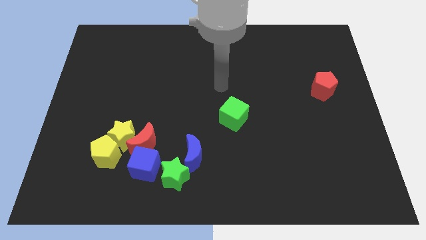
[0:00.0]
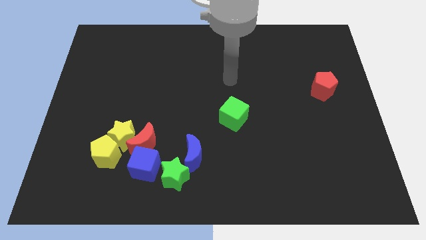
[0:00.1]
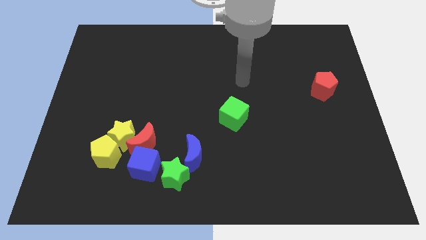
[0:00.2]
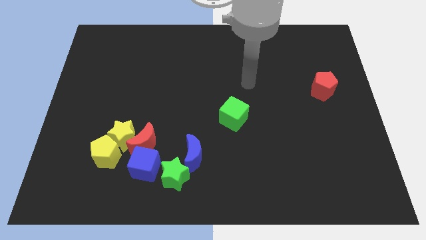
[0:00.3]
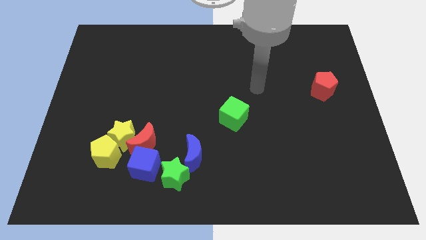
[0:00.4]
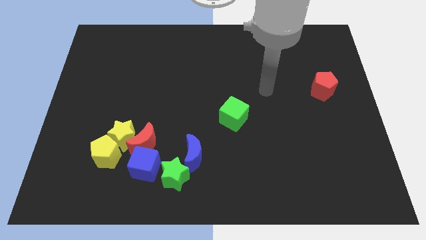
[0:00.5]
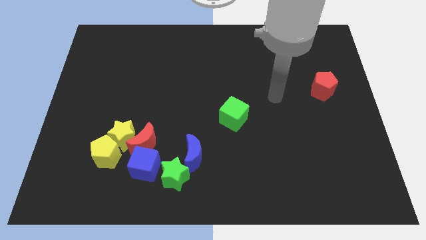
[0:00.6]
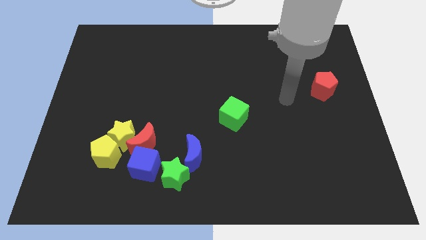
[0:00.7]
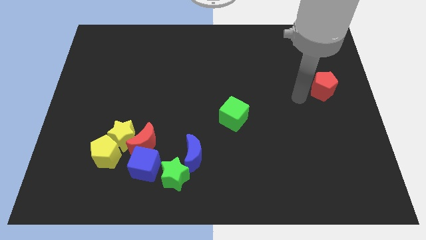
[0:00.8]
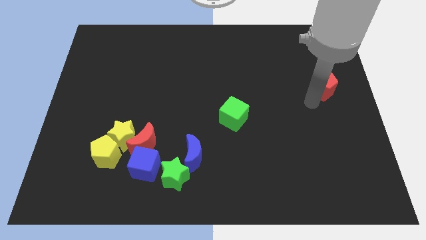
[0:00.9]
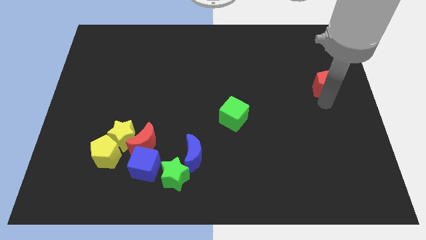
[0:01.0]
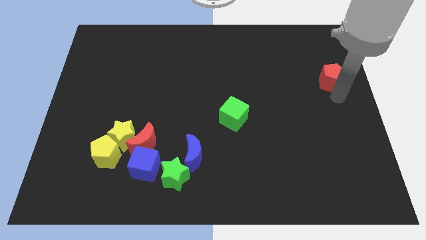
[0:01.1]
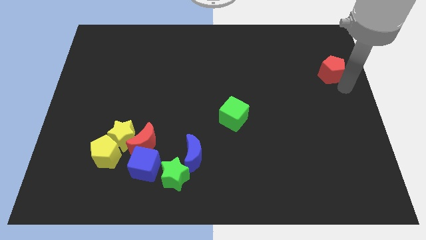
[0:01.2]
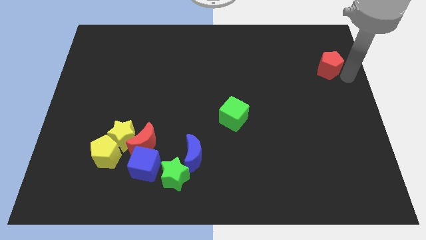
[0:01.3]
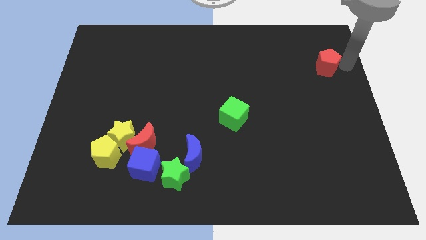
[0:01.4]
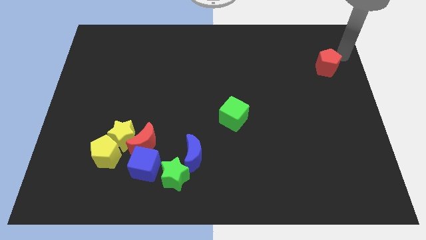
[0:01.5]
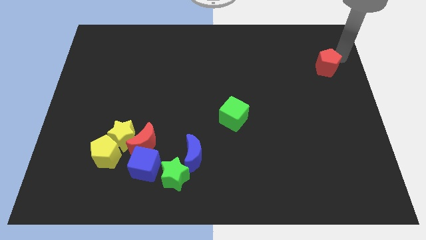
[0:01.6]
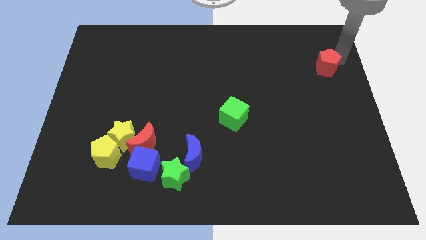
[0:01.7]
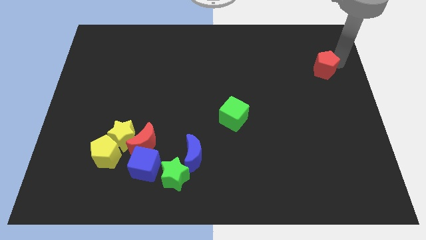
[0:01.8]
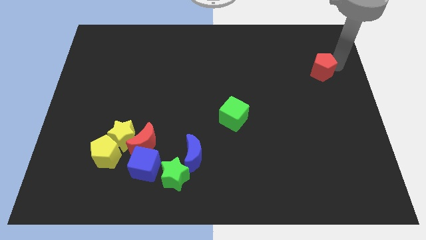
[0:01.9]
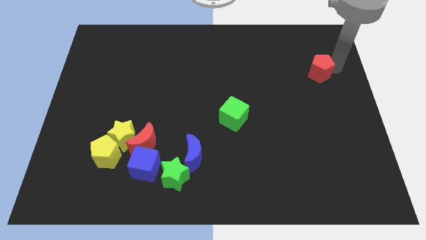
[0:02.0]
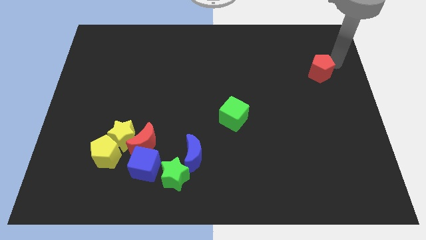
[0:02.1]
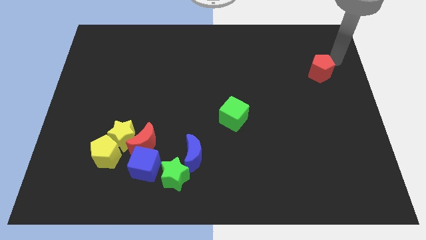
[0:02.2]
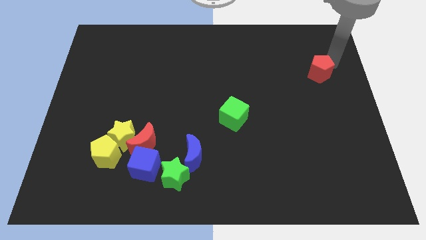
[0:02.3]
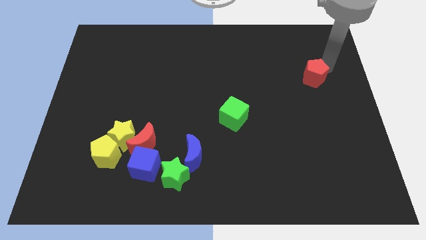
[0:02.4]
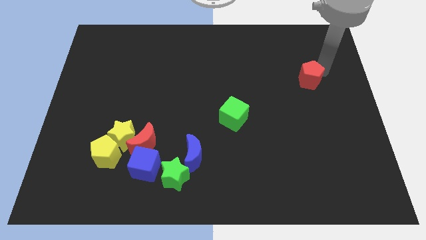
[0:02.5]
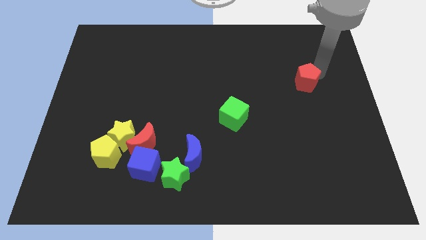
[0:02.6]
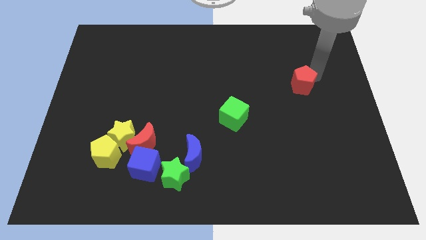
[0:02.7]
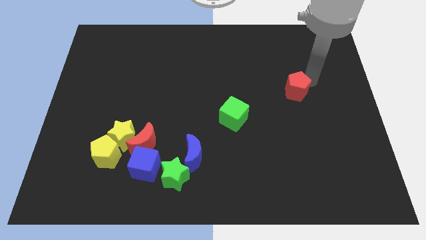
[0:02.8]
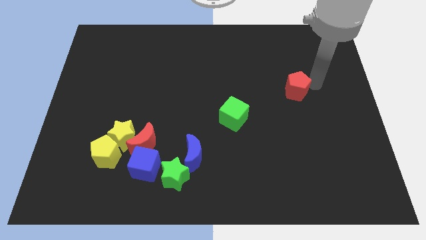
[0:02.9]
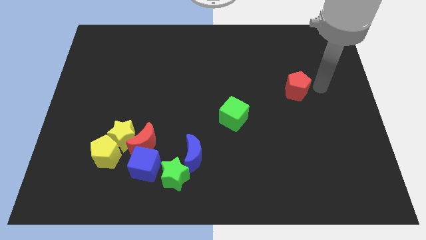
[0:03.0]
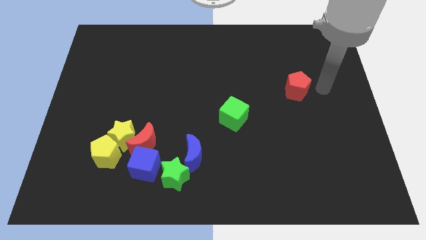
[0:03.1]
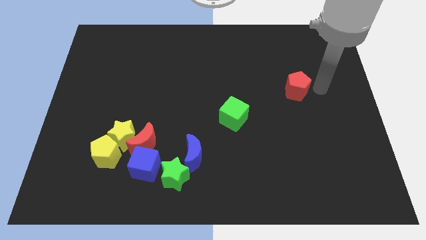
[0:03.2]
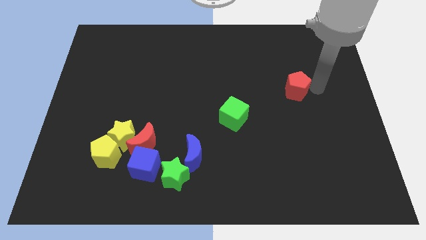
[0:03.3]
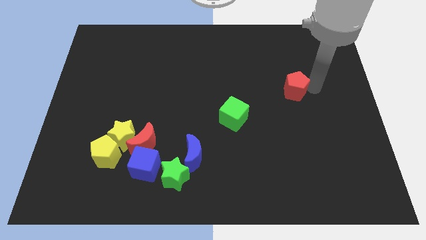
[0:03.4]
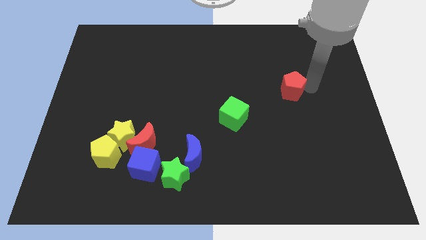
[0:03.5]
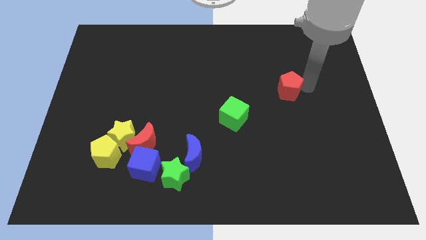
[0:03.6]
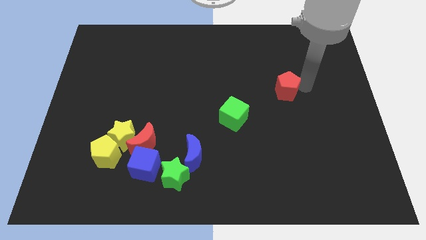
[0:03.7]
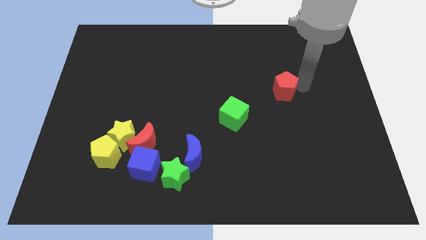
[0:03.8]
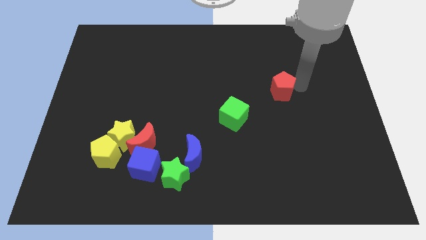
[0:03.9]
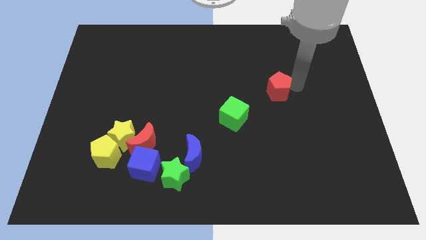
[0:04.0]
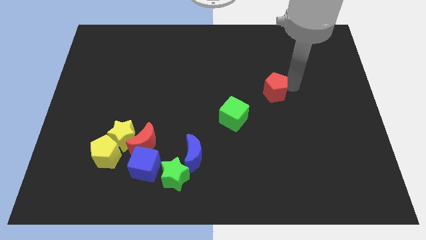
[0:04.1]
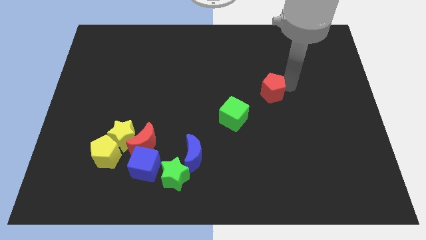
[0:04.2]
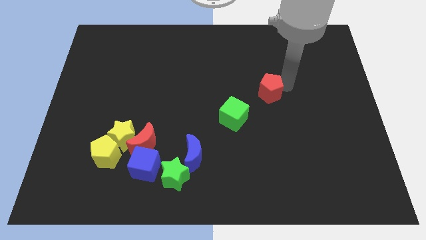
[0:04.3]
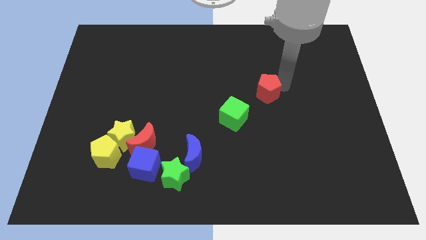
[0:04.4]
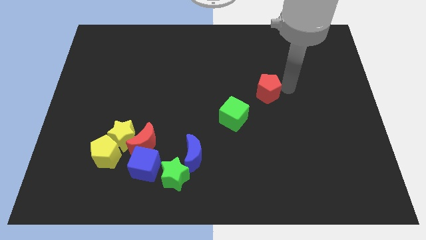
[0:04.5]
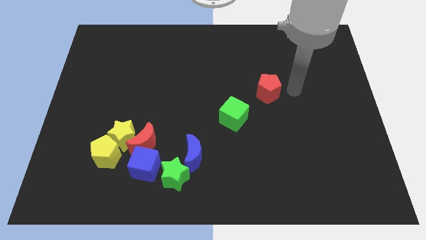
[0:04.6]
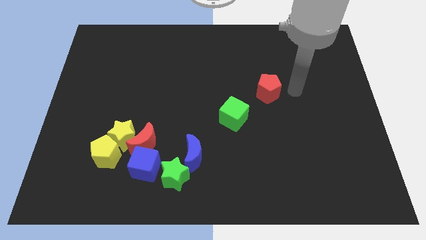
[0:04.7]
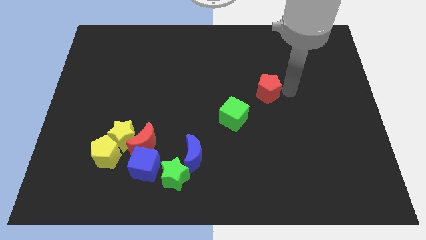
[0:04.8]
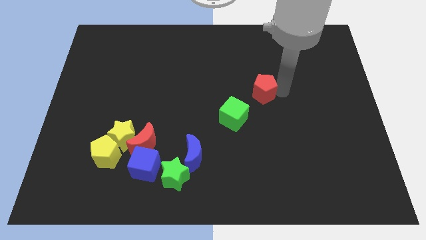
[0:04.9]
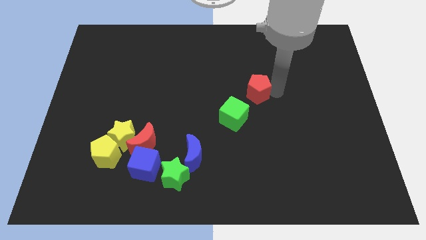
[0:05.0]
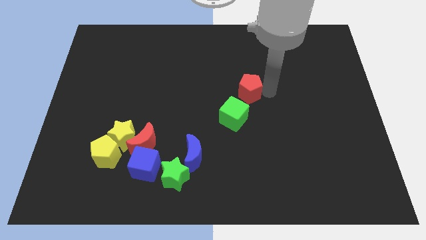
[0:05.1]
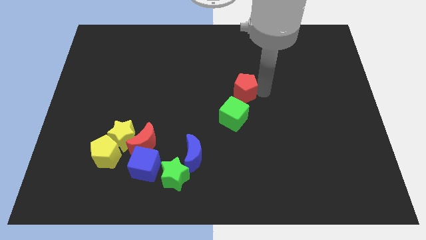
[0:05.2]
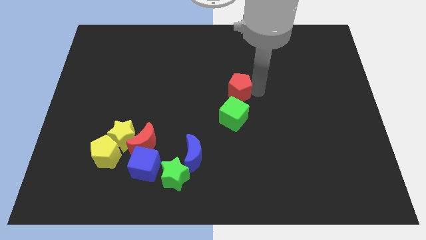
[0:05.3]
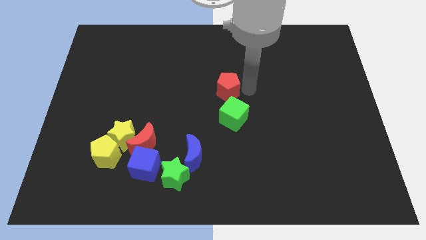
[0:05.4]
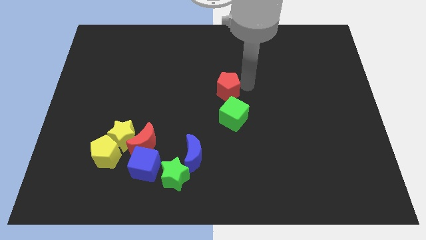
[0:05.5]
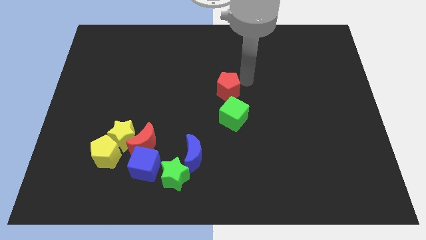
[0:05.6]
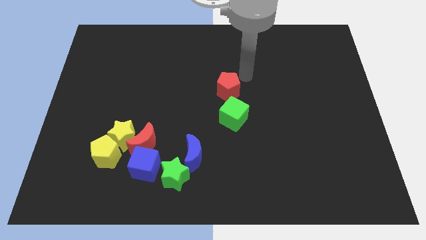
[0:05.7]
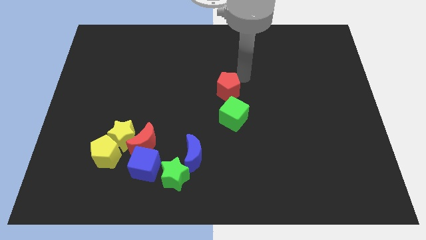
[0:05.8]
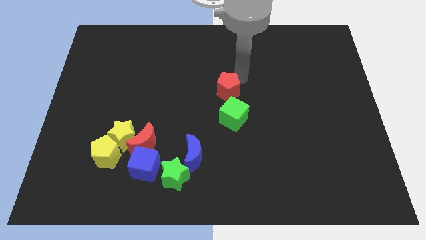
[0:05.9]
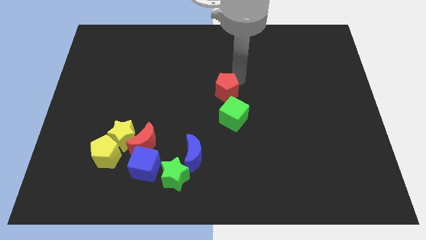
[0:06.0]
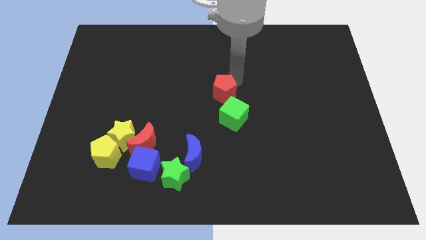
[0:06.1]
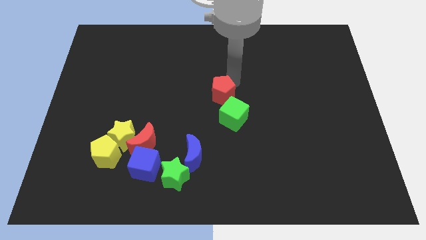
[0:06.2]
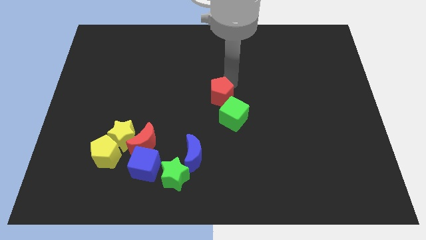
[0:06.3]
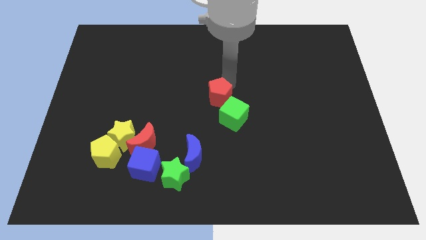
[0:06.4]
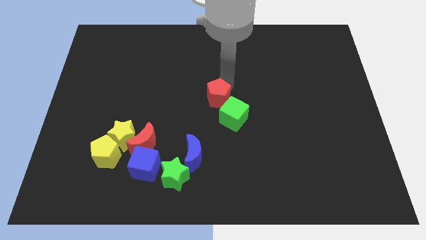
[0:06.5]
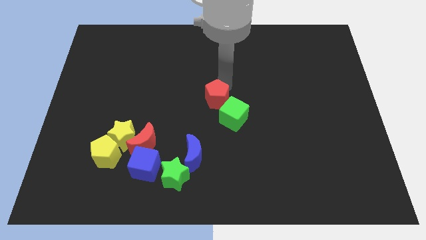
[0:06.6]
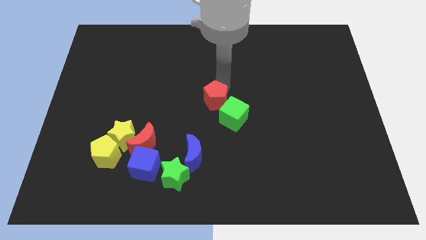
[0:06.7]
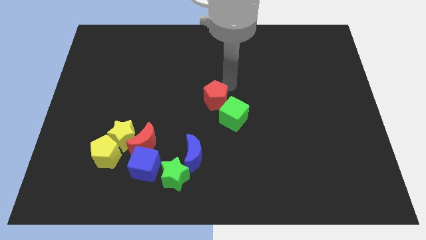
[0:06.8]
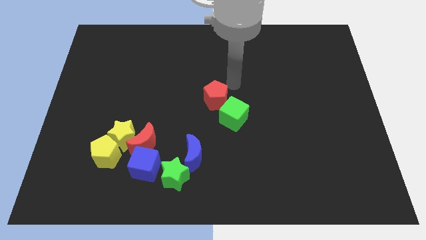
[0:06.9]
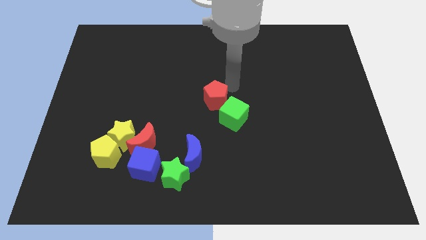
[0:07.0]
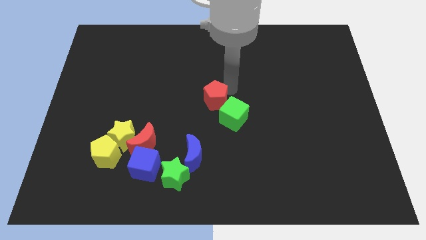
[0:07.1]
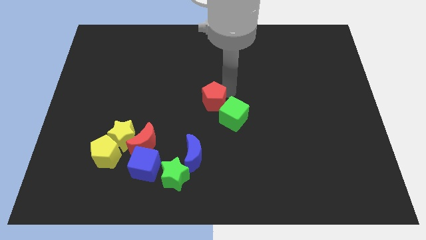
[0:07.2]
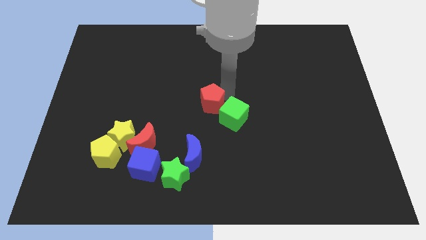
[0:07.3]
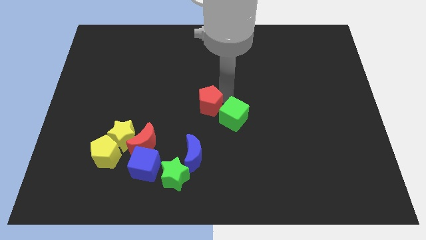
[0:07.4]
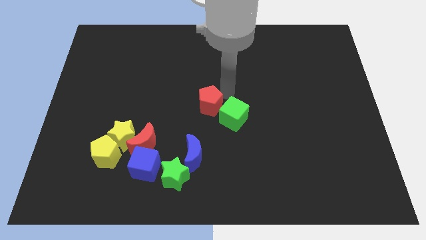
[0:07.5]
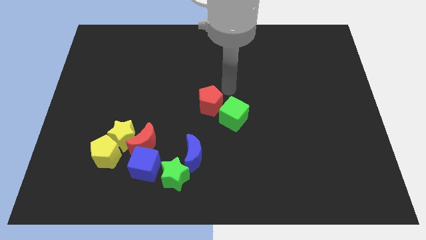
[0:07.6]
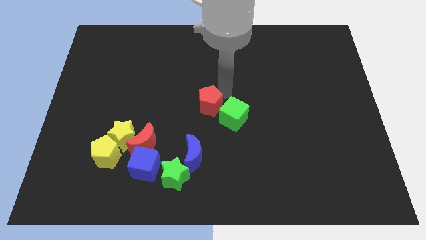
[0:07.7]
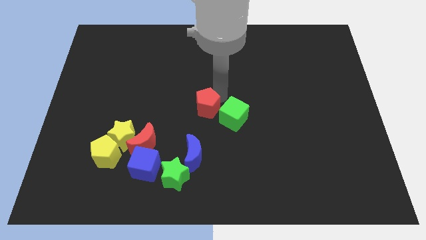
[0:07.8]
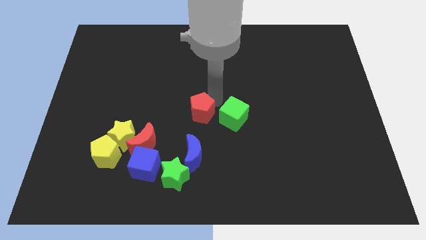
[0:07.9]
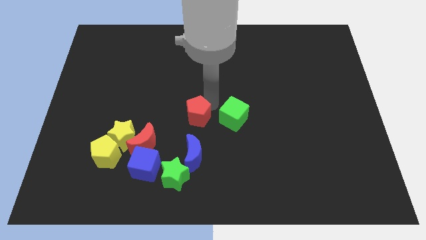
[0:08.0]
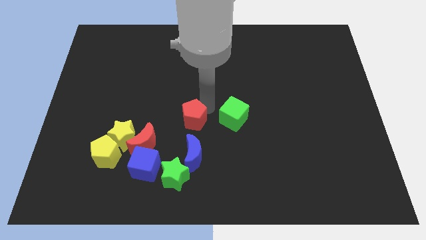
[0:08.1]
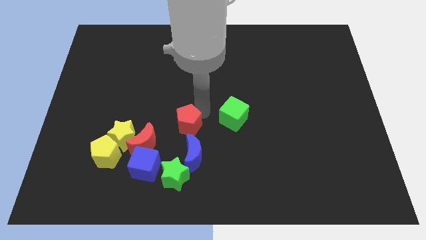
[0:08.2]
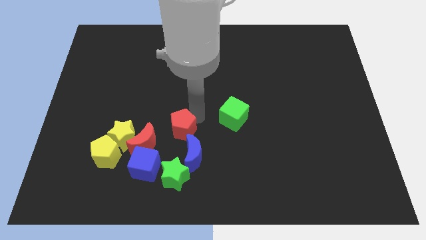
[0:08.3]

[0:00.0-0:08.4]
slide the red pentagon to the top left of the blue moon
